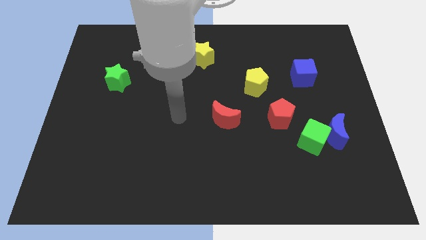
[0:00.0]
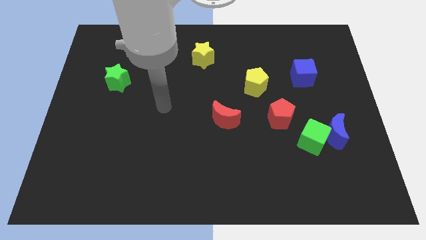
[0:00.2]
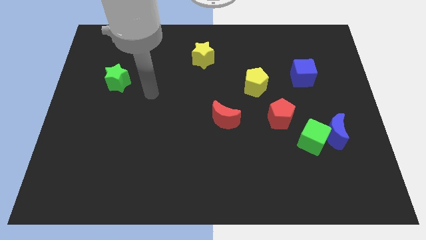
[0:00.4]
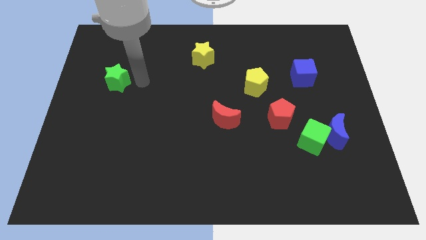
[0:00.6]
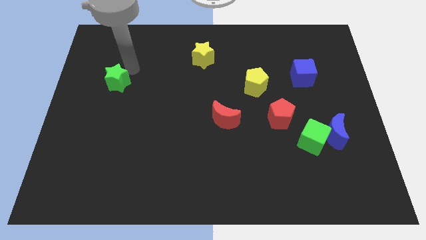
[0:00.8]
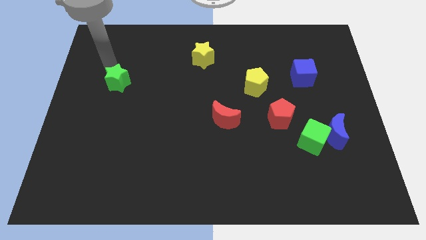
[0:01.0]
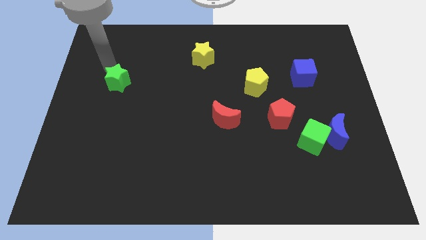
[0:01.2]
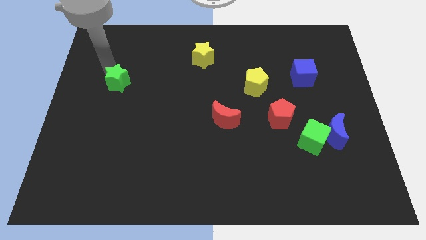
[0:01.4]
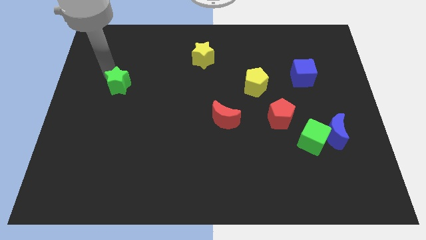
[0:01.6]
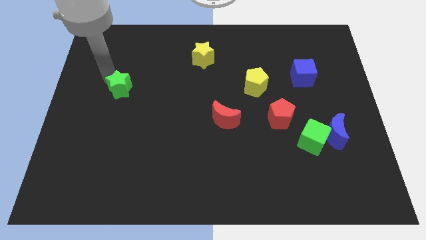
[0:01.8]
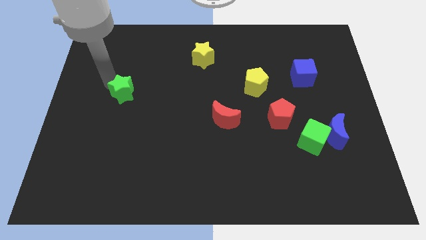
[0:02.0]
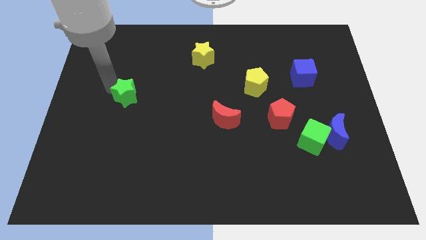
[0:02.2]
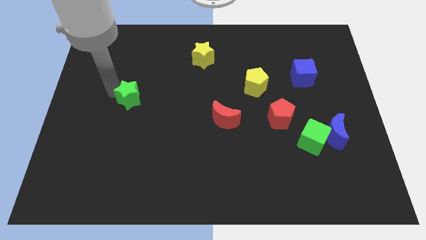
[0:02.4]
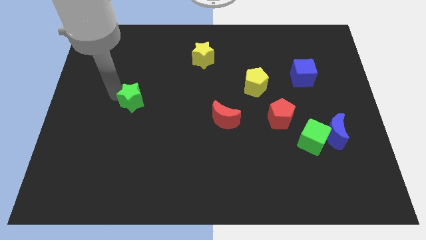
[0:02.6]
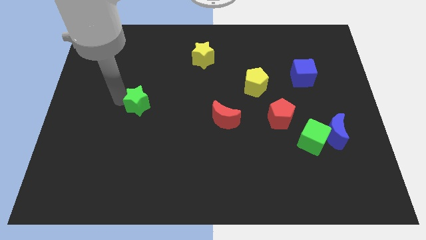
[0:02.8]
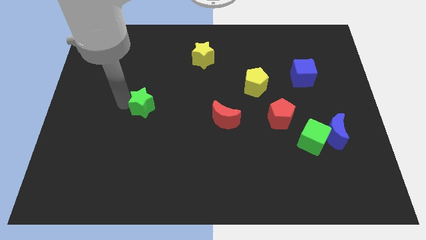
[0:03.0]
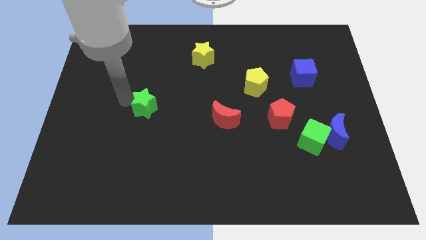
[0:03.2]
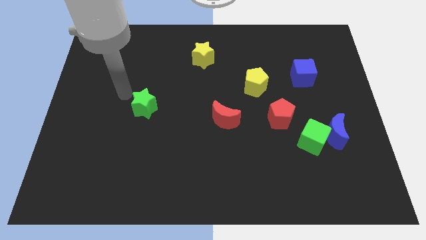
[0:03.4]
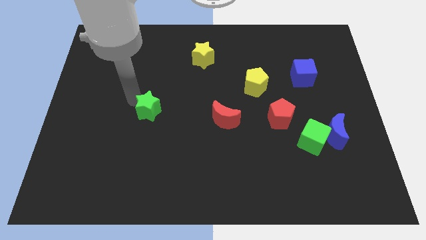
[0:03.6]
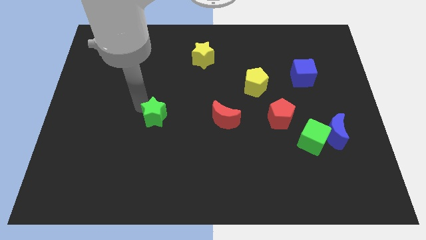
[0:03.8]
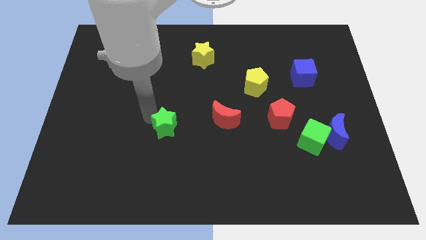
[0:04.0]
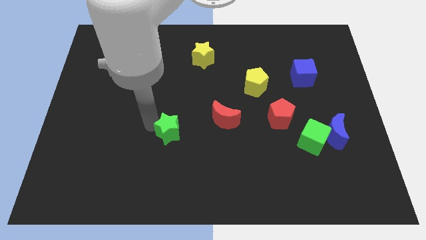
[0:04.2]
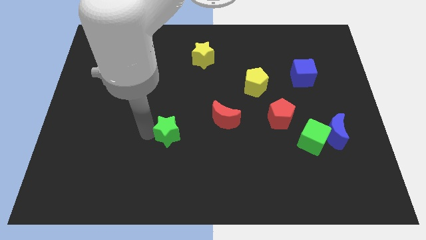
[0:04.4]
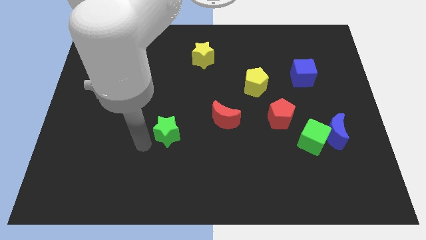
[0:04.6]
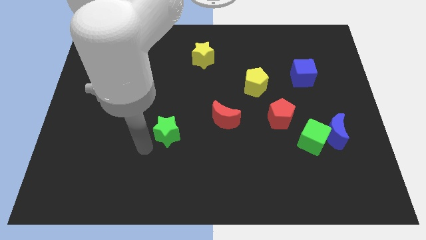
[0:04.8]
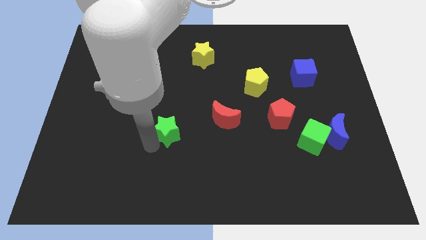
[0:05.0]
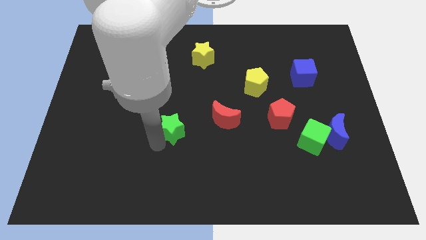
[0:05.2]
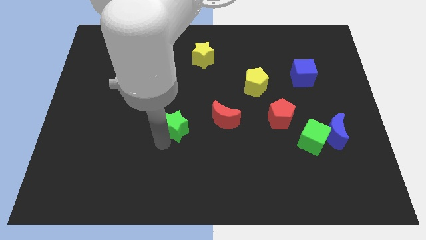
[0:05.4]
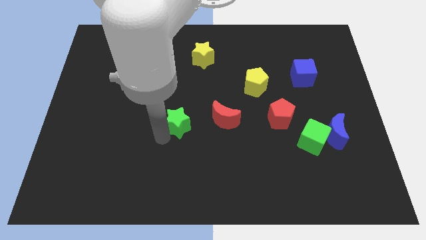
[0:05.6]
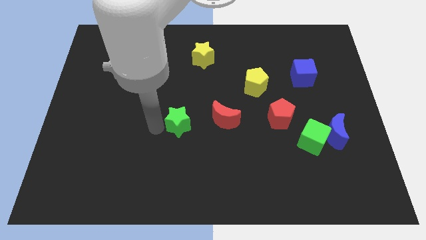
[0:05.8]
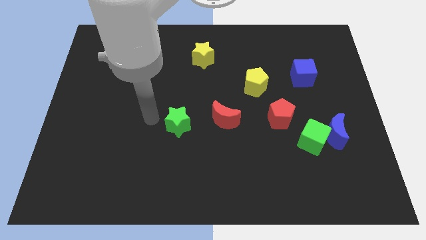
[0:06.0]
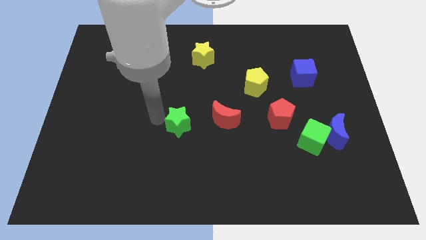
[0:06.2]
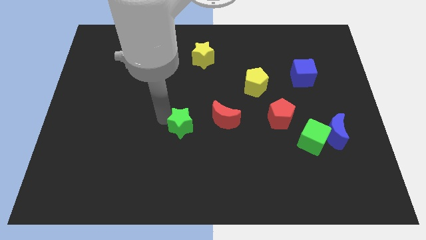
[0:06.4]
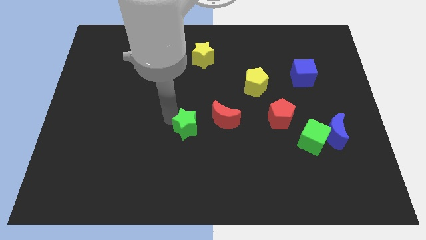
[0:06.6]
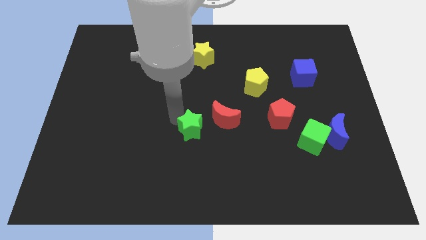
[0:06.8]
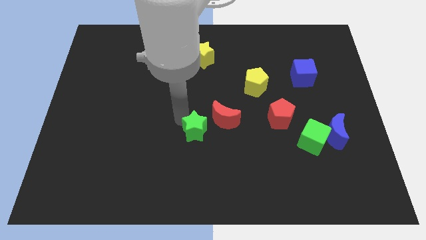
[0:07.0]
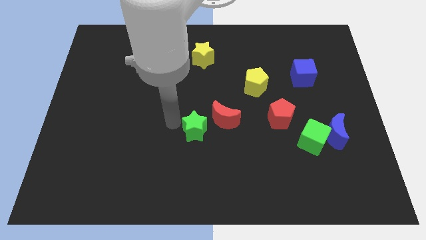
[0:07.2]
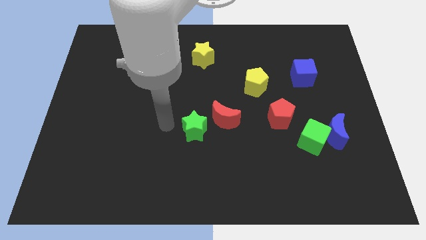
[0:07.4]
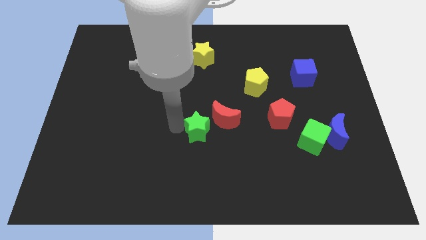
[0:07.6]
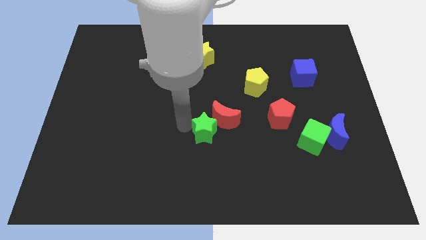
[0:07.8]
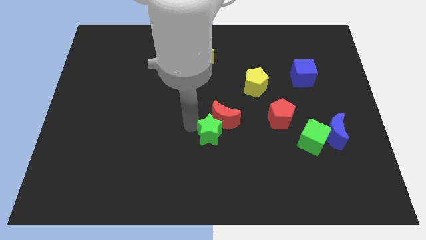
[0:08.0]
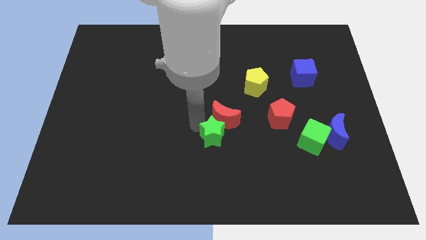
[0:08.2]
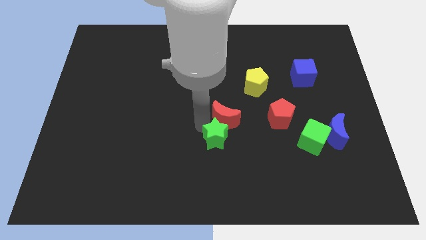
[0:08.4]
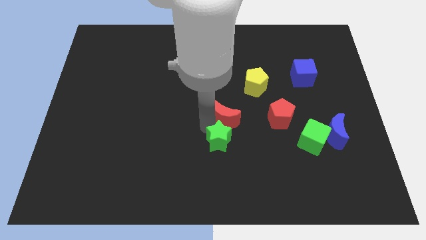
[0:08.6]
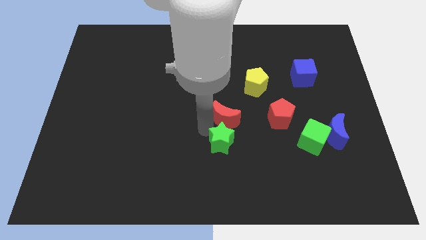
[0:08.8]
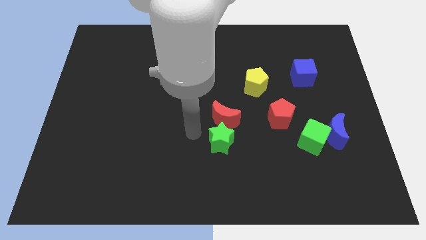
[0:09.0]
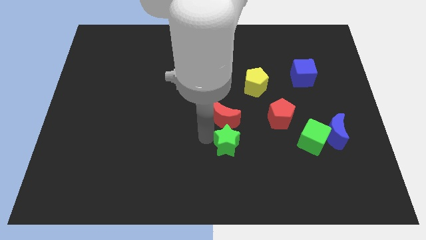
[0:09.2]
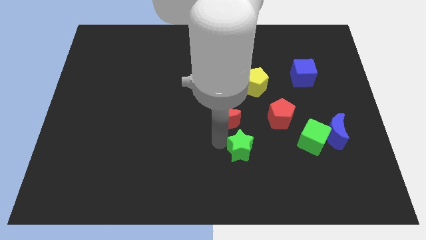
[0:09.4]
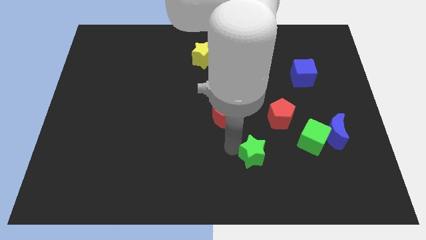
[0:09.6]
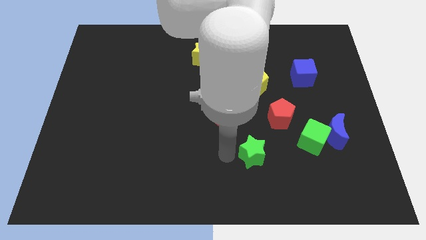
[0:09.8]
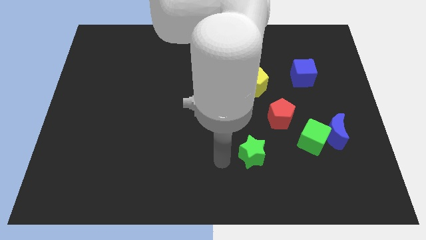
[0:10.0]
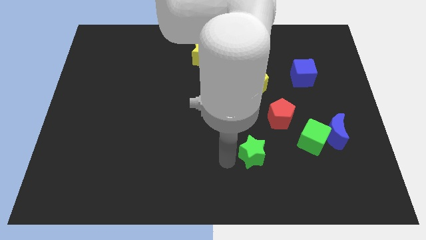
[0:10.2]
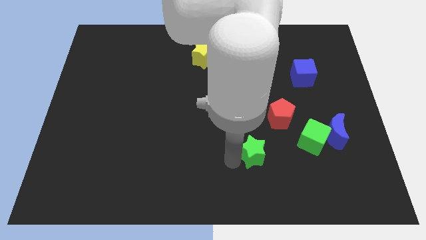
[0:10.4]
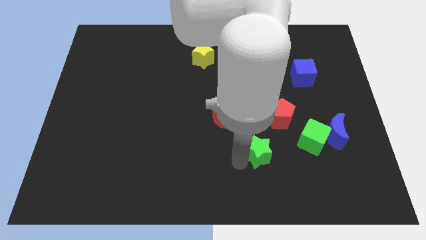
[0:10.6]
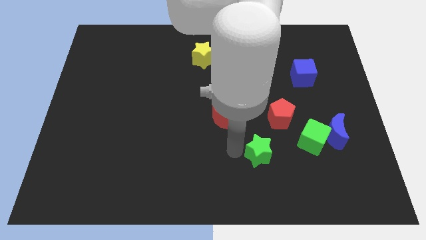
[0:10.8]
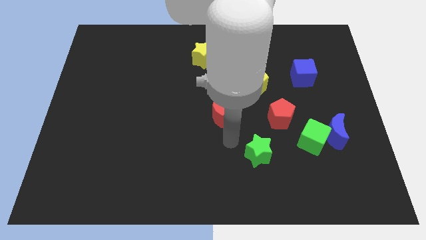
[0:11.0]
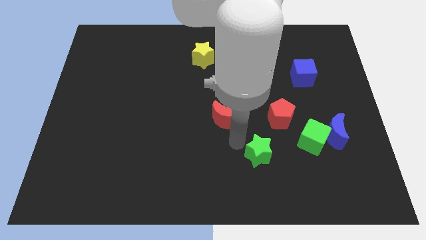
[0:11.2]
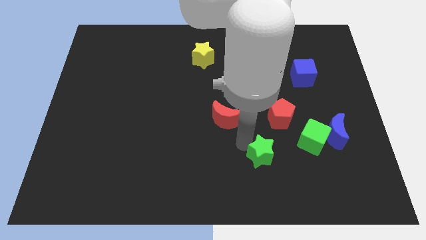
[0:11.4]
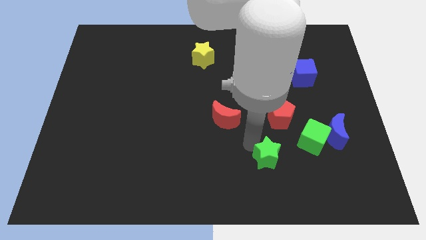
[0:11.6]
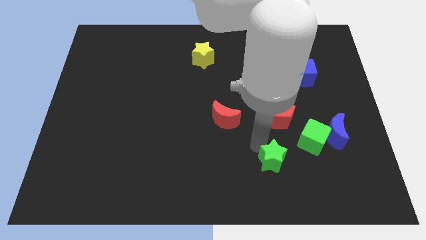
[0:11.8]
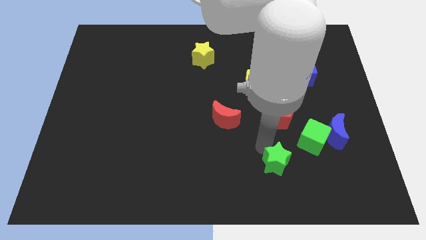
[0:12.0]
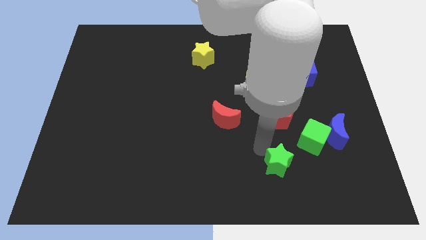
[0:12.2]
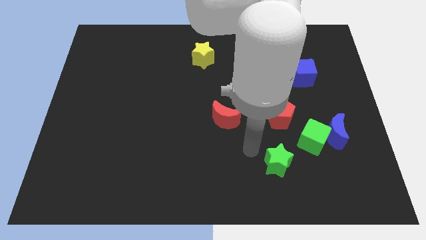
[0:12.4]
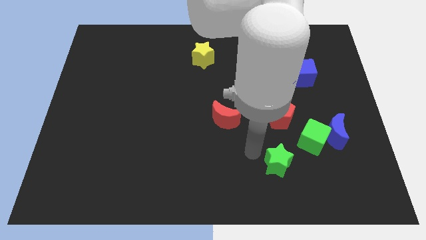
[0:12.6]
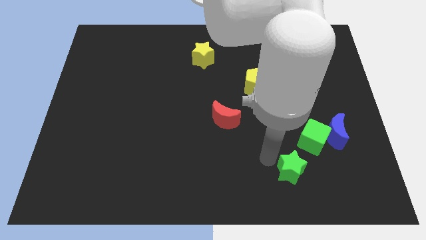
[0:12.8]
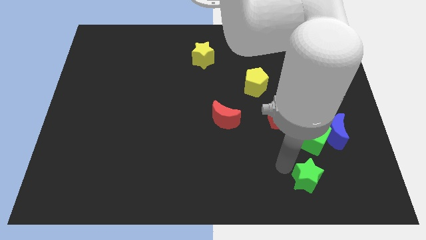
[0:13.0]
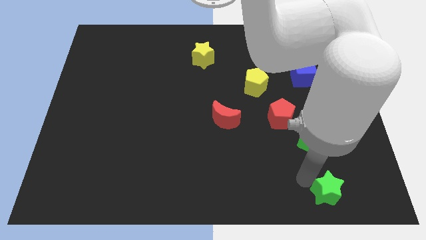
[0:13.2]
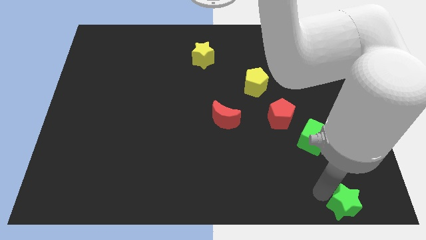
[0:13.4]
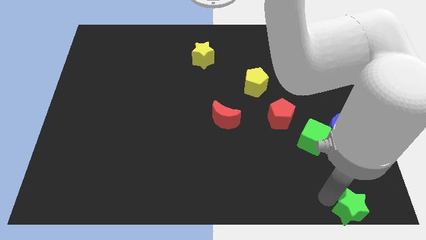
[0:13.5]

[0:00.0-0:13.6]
put the green star to the lower right corner

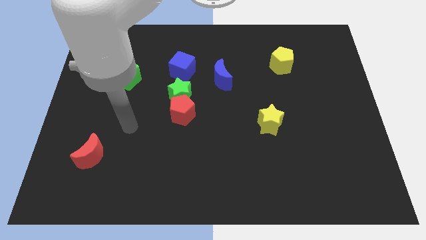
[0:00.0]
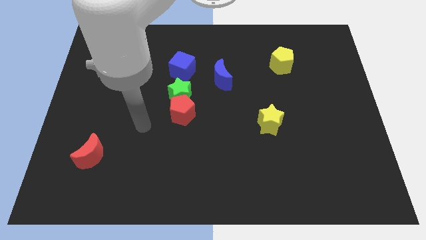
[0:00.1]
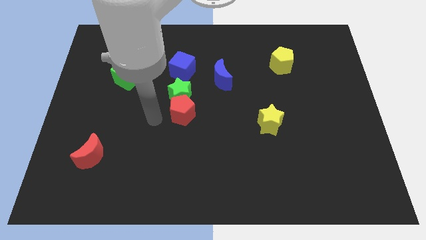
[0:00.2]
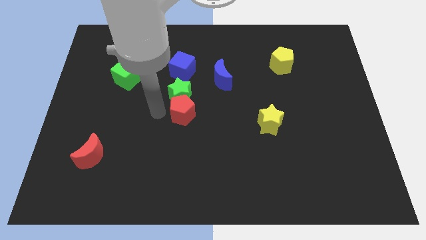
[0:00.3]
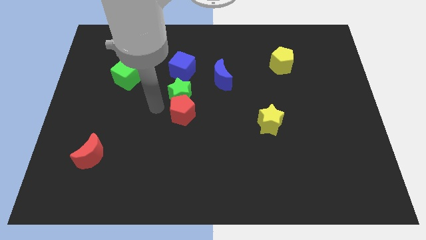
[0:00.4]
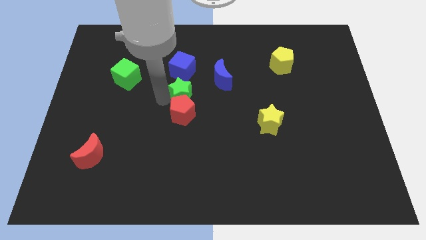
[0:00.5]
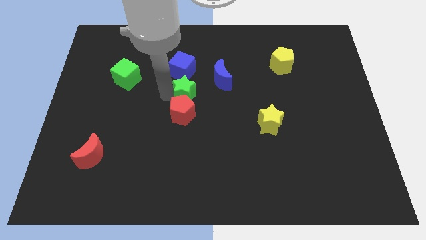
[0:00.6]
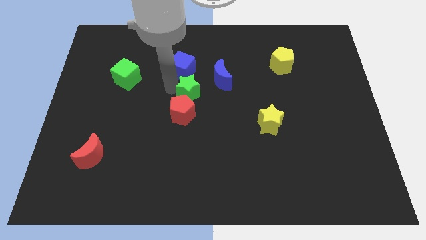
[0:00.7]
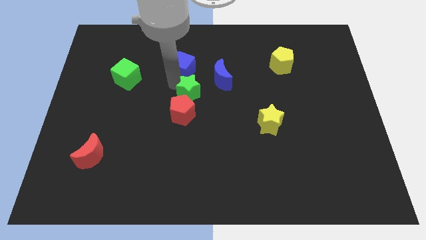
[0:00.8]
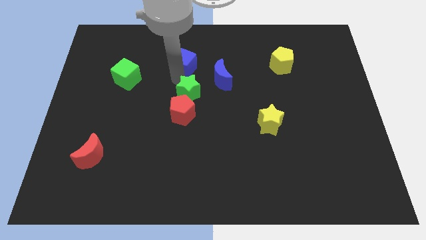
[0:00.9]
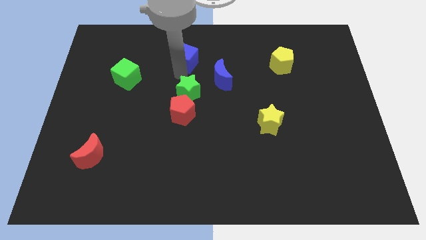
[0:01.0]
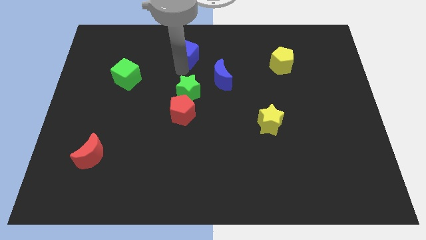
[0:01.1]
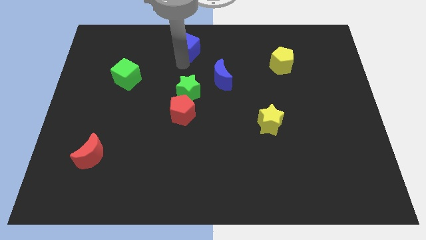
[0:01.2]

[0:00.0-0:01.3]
move the blue cube to the top side
